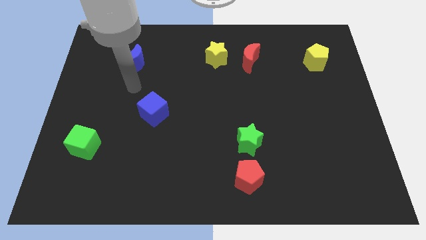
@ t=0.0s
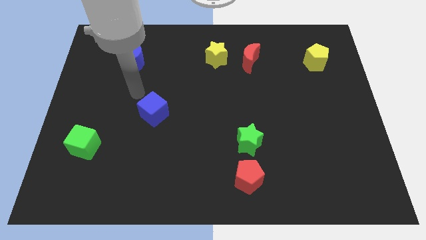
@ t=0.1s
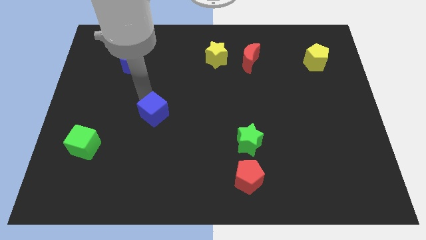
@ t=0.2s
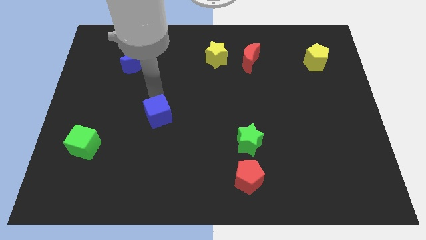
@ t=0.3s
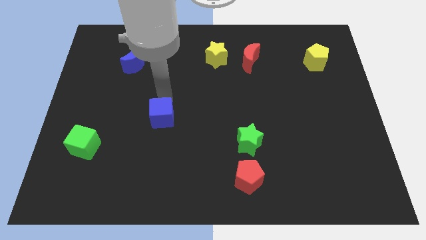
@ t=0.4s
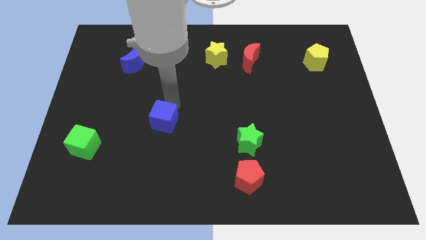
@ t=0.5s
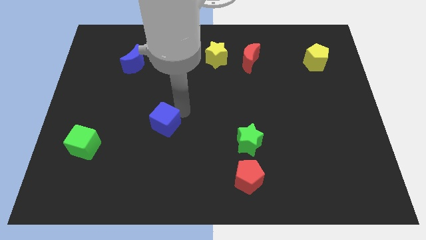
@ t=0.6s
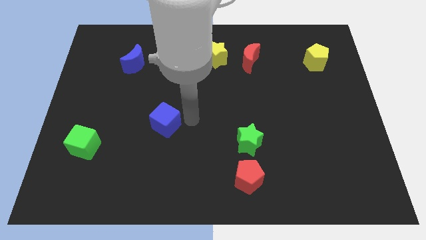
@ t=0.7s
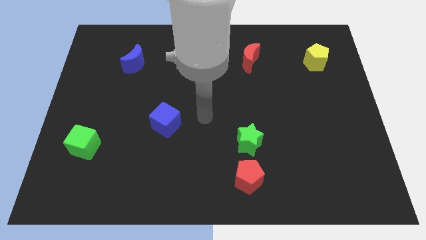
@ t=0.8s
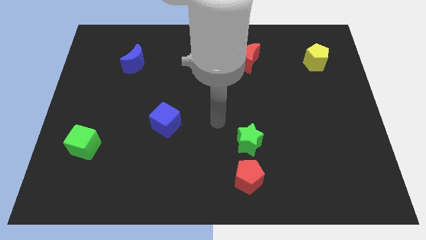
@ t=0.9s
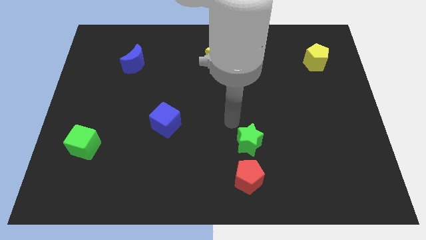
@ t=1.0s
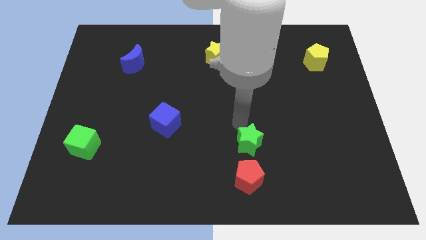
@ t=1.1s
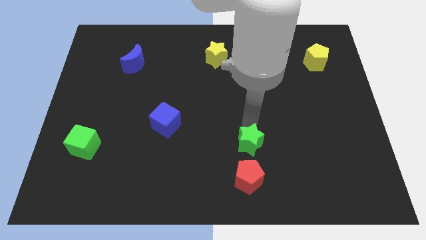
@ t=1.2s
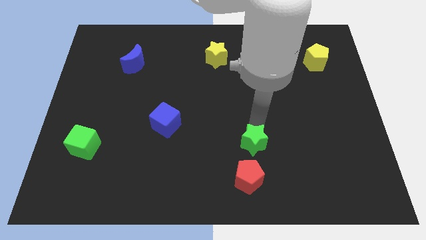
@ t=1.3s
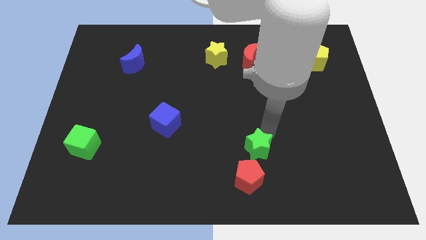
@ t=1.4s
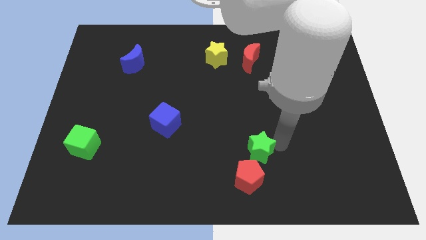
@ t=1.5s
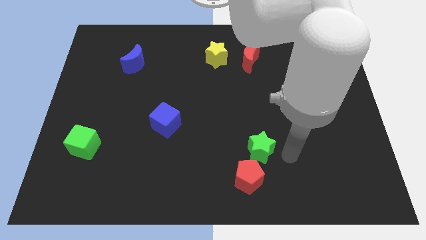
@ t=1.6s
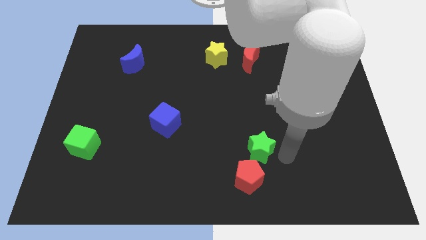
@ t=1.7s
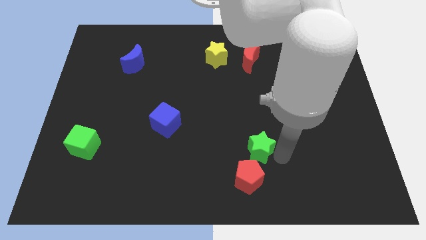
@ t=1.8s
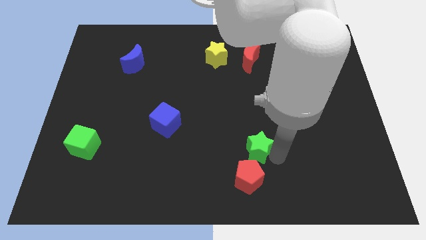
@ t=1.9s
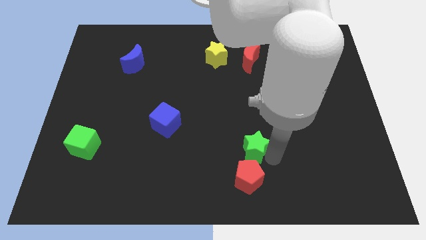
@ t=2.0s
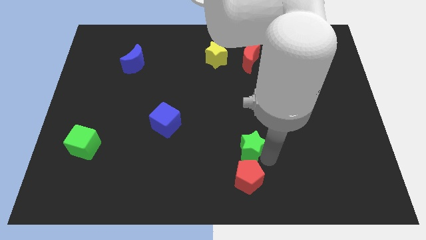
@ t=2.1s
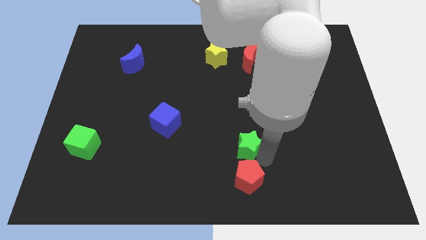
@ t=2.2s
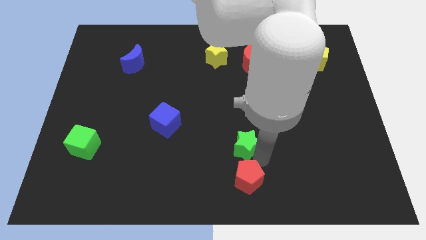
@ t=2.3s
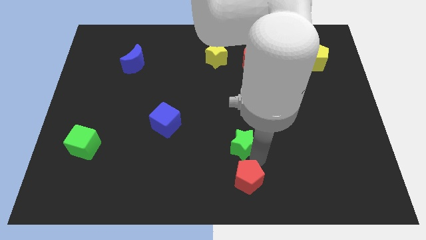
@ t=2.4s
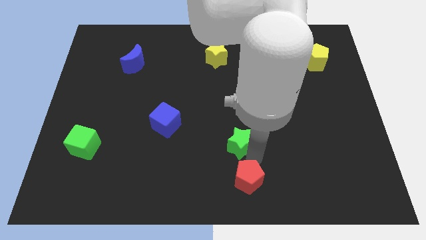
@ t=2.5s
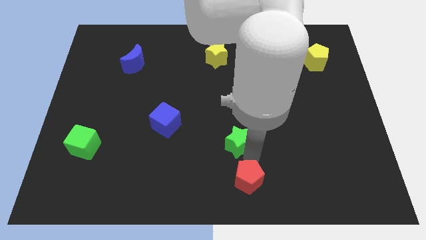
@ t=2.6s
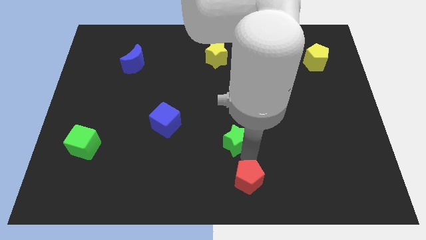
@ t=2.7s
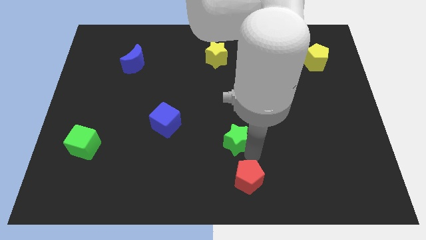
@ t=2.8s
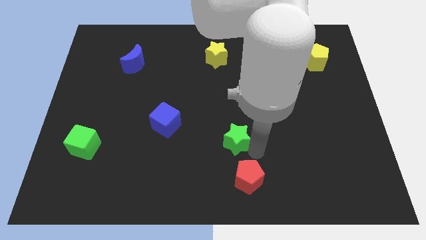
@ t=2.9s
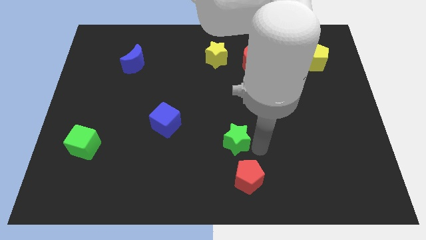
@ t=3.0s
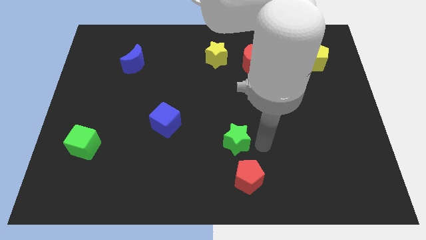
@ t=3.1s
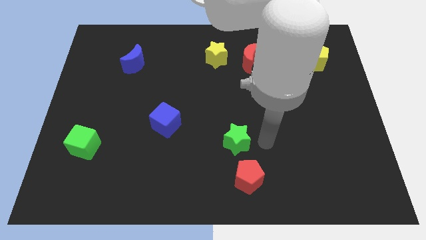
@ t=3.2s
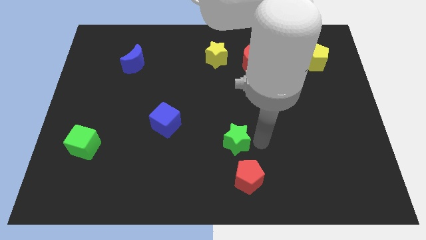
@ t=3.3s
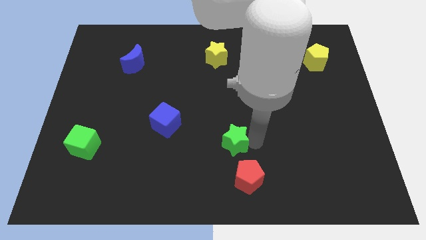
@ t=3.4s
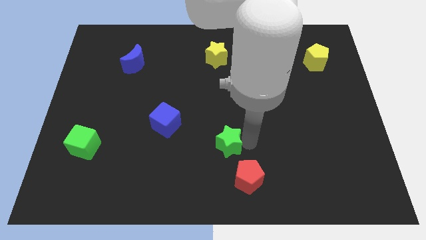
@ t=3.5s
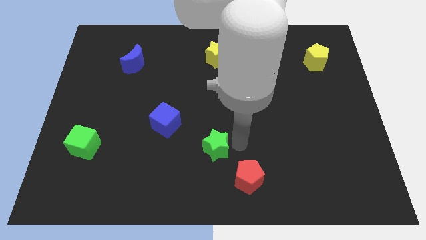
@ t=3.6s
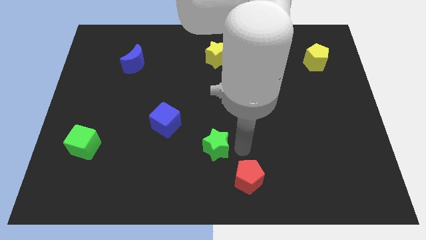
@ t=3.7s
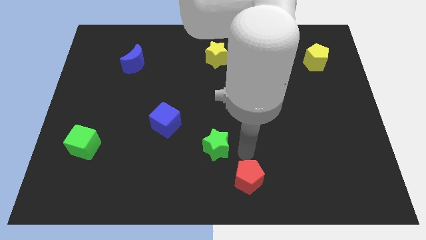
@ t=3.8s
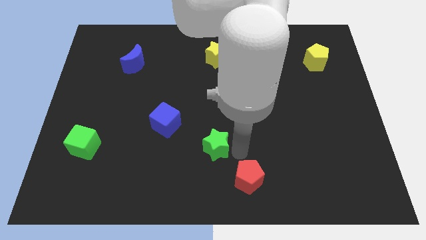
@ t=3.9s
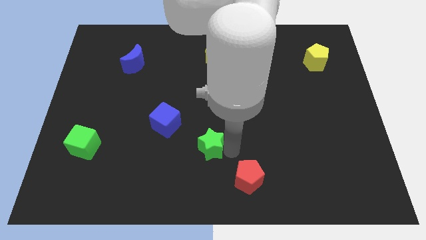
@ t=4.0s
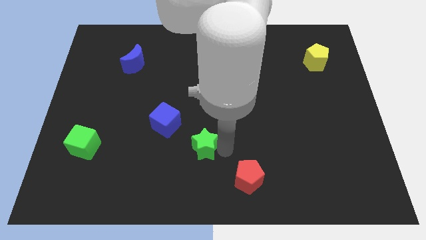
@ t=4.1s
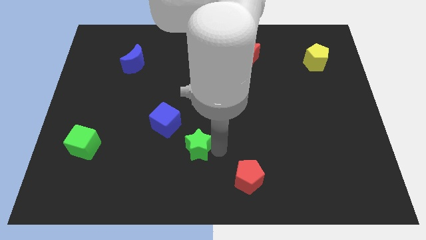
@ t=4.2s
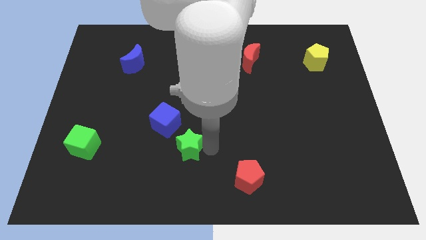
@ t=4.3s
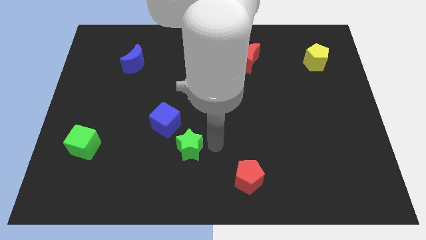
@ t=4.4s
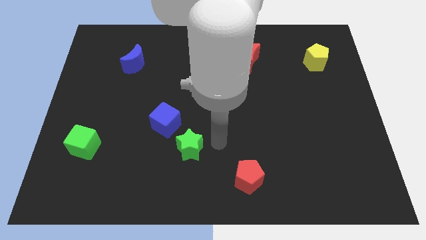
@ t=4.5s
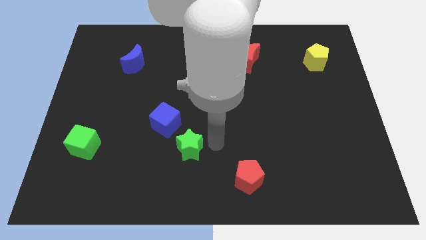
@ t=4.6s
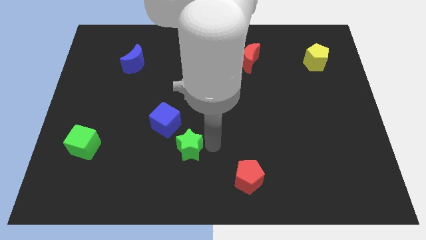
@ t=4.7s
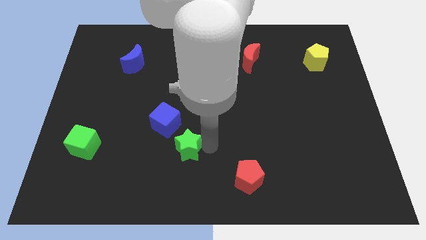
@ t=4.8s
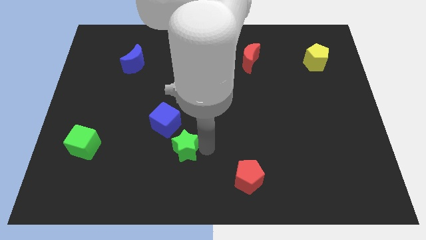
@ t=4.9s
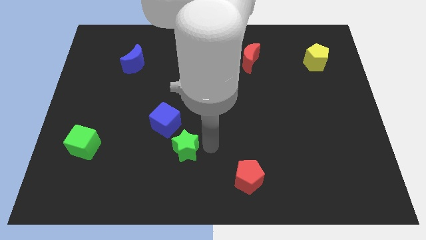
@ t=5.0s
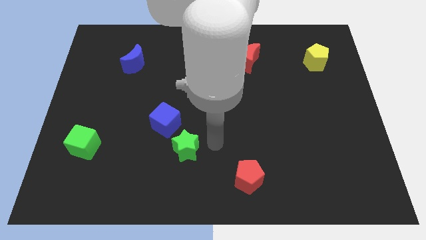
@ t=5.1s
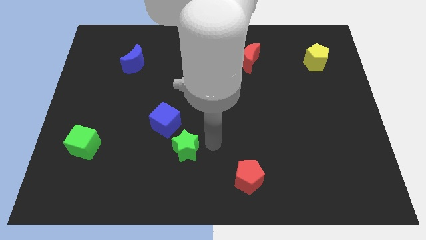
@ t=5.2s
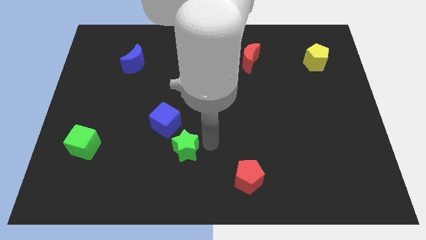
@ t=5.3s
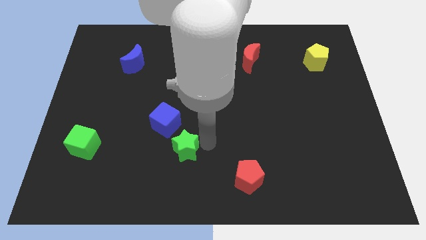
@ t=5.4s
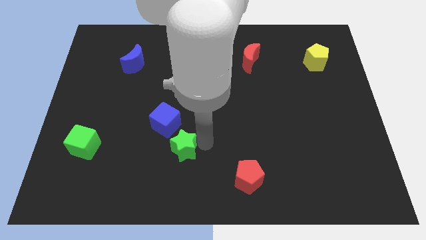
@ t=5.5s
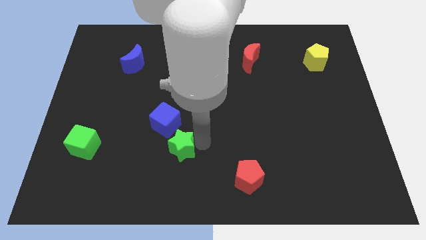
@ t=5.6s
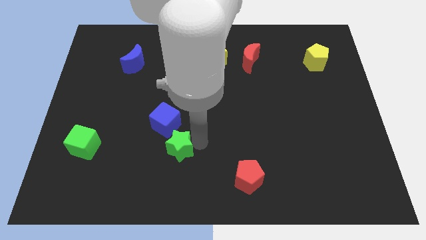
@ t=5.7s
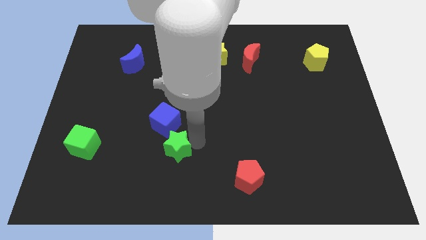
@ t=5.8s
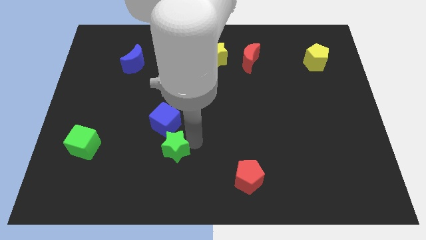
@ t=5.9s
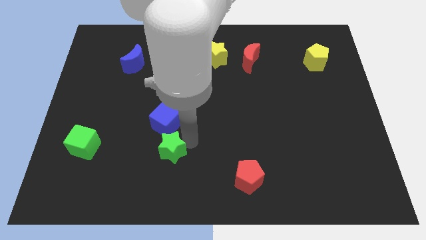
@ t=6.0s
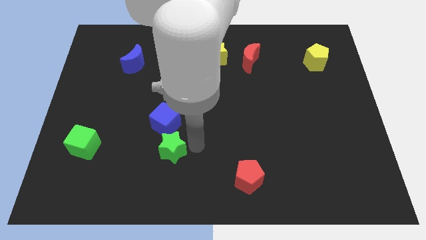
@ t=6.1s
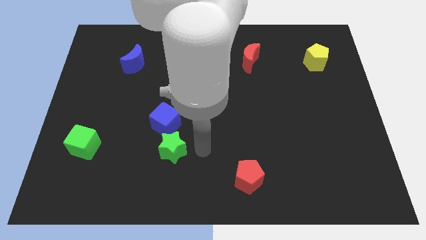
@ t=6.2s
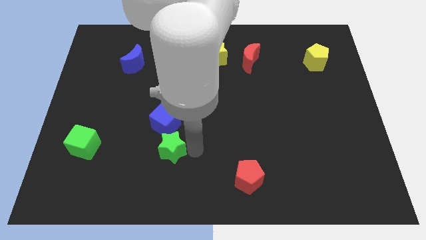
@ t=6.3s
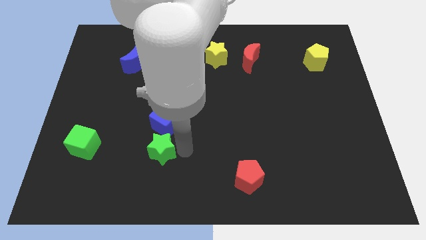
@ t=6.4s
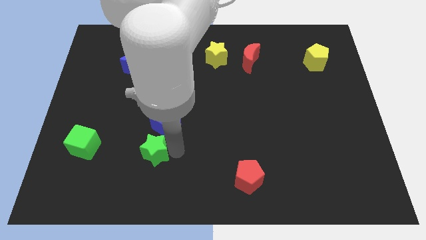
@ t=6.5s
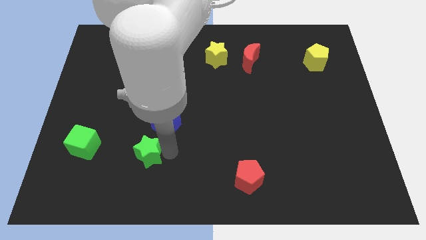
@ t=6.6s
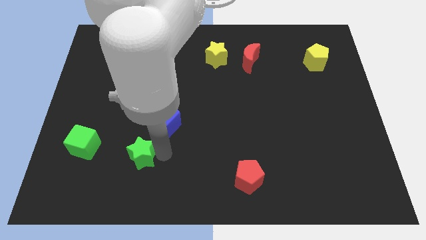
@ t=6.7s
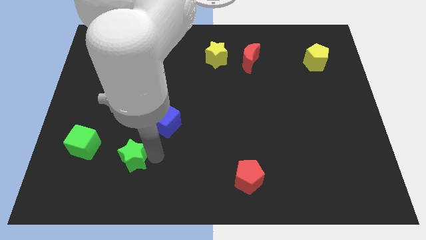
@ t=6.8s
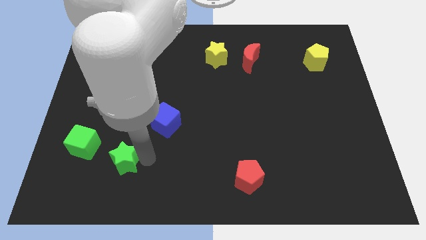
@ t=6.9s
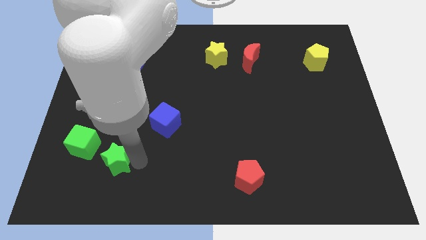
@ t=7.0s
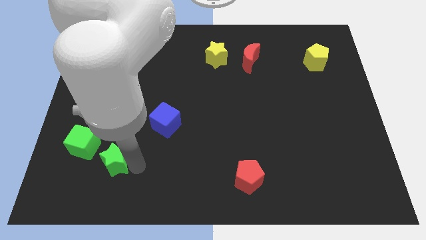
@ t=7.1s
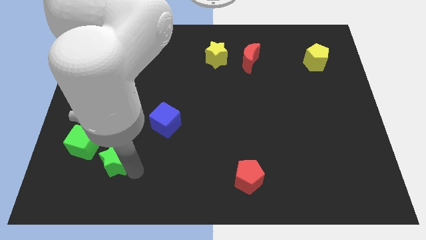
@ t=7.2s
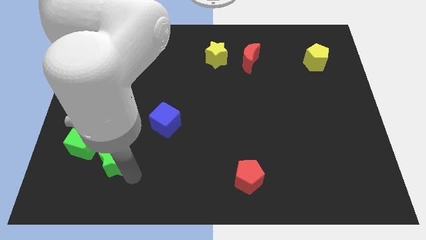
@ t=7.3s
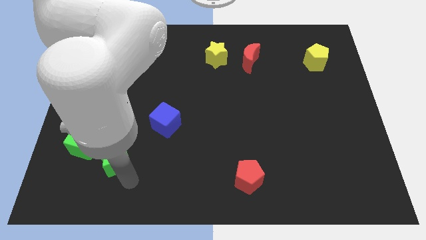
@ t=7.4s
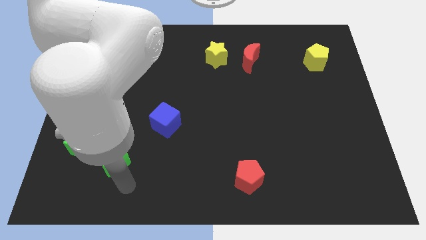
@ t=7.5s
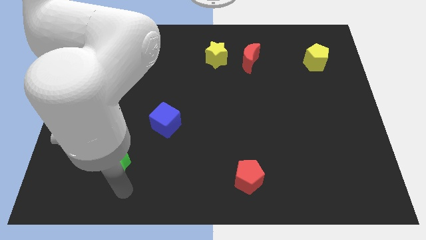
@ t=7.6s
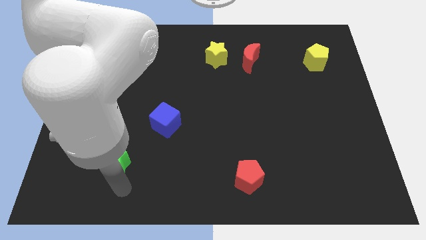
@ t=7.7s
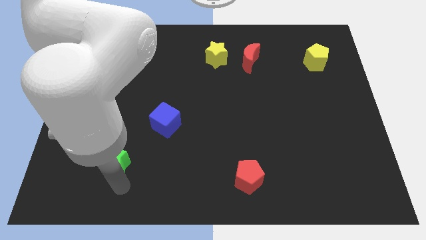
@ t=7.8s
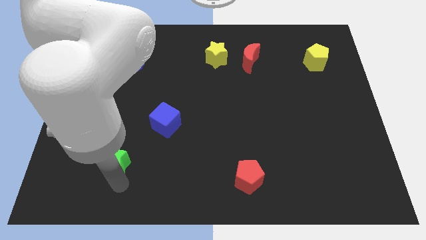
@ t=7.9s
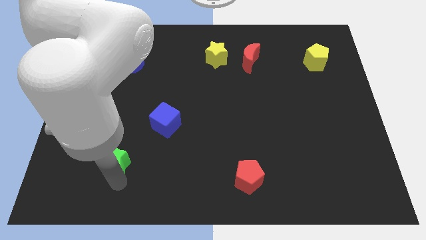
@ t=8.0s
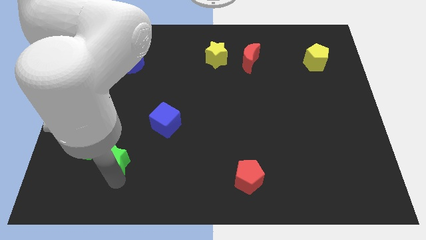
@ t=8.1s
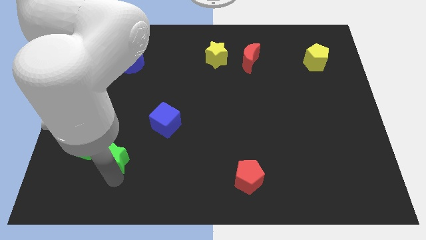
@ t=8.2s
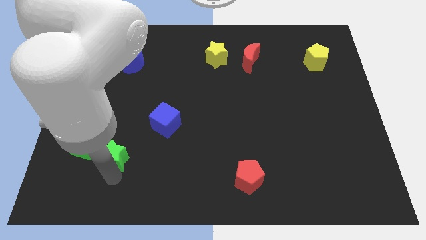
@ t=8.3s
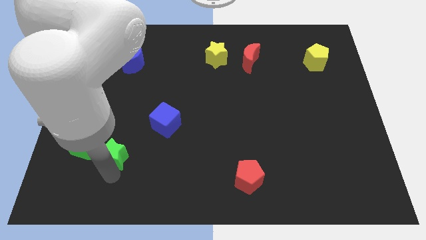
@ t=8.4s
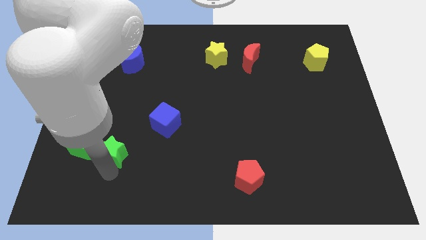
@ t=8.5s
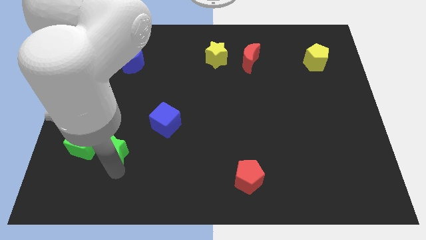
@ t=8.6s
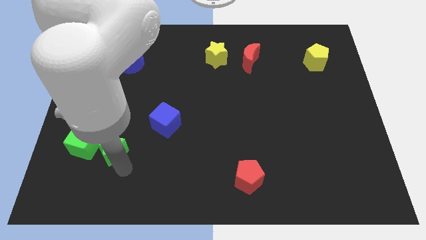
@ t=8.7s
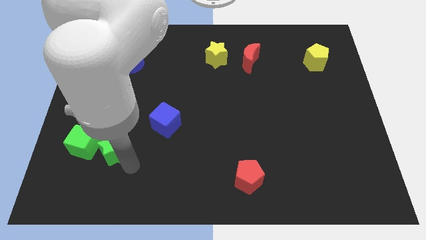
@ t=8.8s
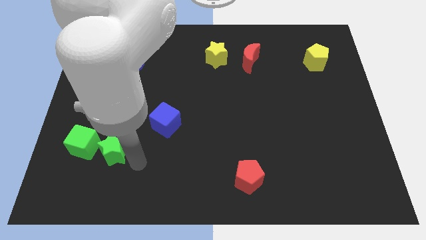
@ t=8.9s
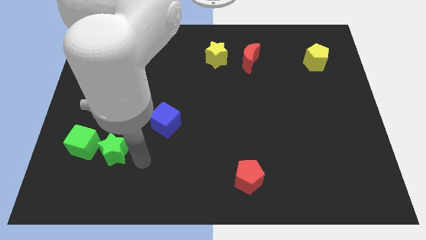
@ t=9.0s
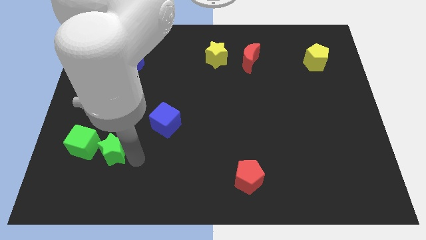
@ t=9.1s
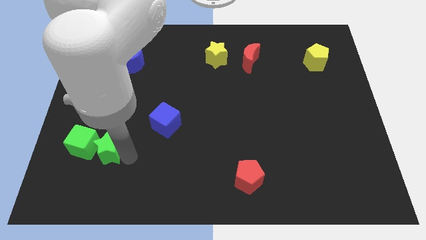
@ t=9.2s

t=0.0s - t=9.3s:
slide the green star towards the green cube
